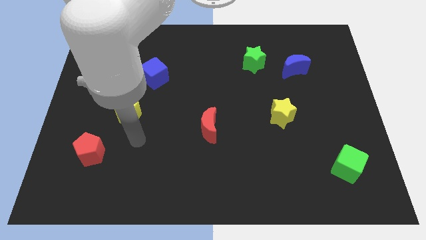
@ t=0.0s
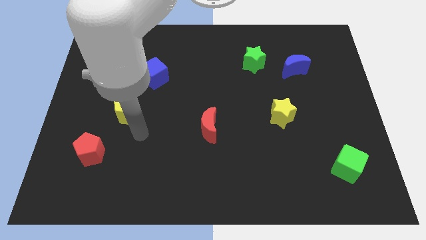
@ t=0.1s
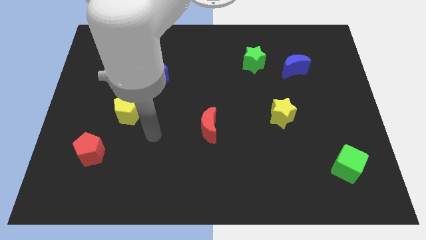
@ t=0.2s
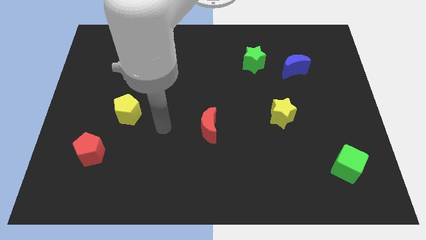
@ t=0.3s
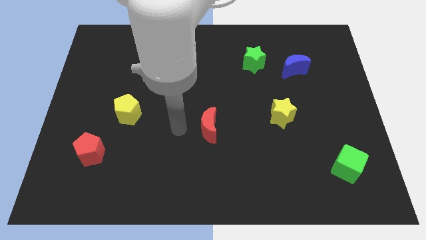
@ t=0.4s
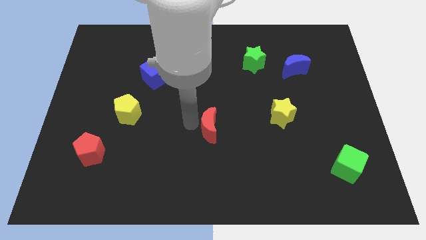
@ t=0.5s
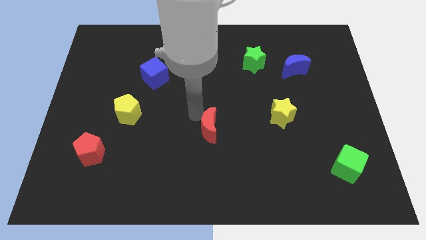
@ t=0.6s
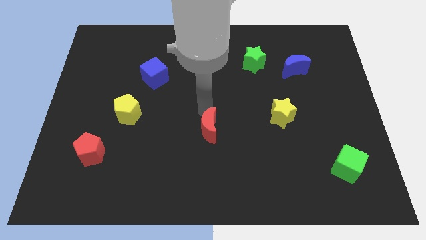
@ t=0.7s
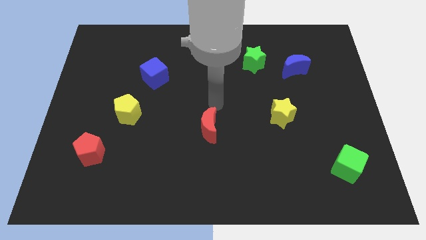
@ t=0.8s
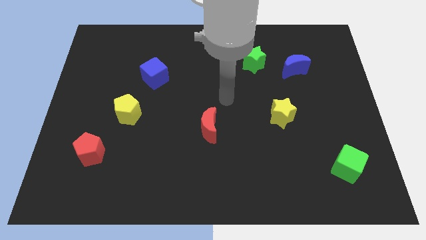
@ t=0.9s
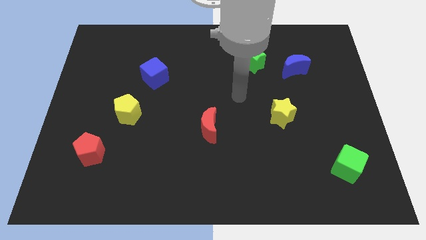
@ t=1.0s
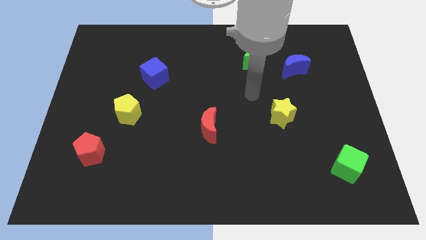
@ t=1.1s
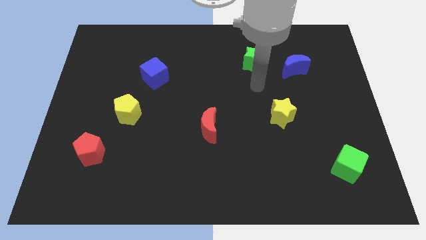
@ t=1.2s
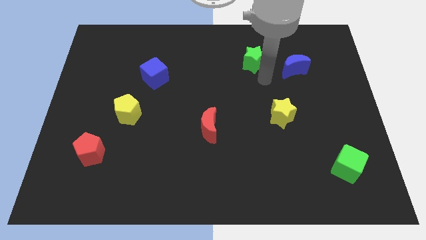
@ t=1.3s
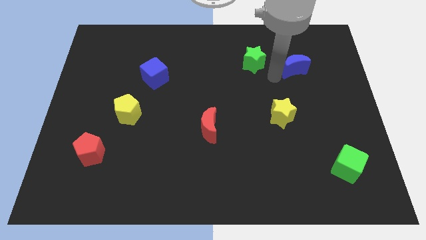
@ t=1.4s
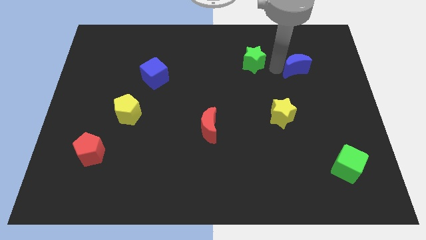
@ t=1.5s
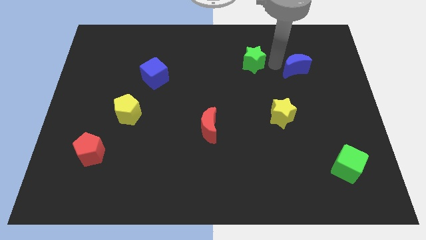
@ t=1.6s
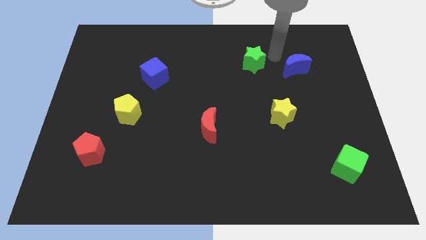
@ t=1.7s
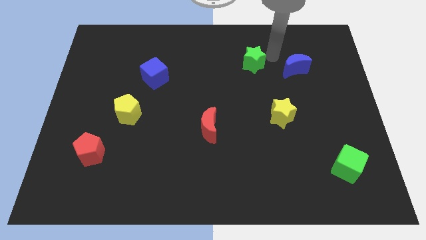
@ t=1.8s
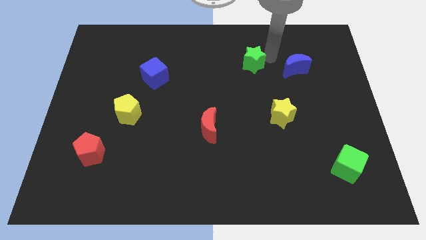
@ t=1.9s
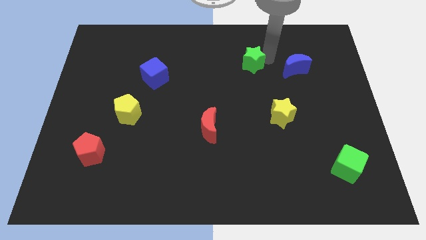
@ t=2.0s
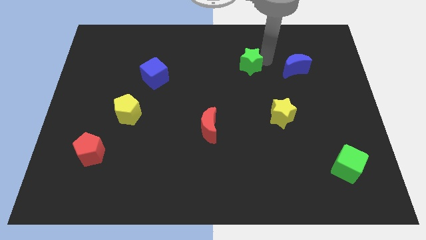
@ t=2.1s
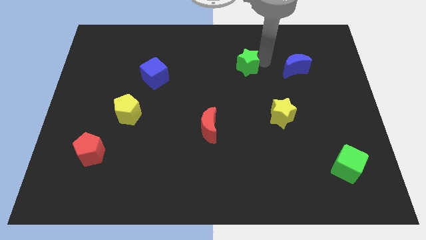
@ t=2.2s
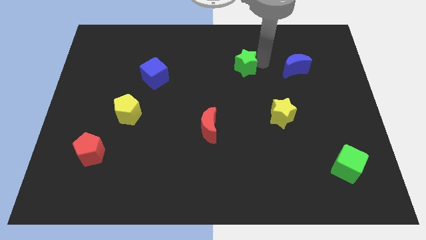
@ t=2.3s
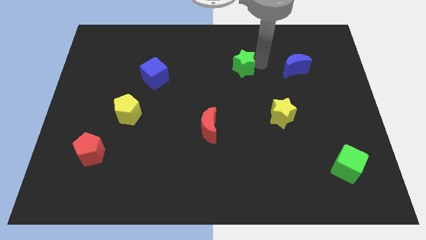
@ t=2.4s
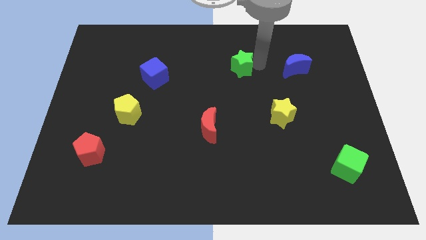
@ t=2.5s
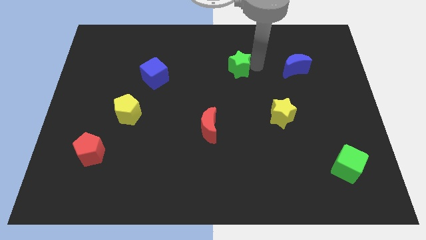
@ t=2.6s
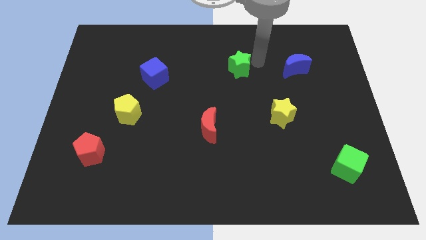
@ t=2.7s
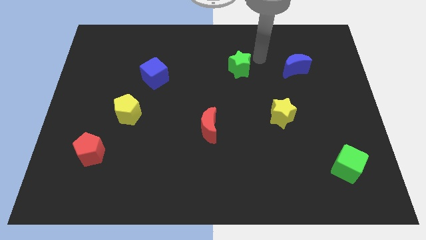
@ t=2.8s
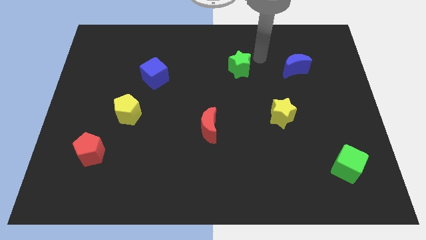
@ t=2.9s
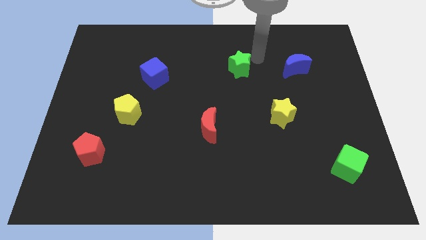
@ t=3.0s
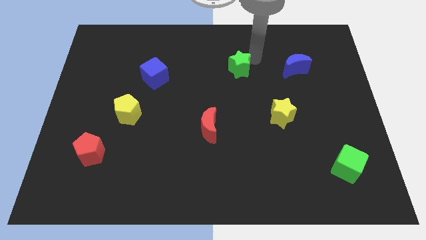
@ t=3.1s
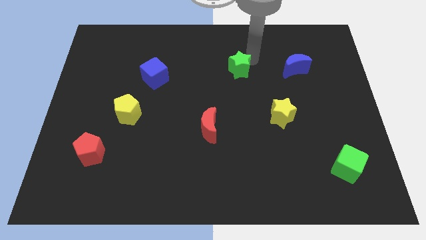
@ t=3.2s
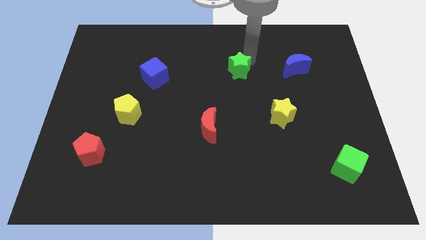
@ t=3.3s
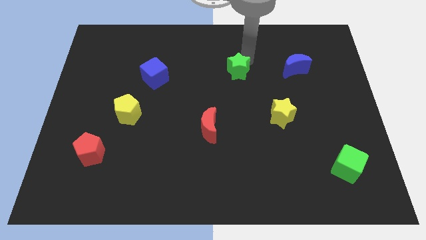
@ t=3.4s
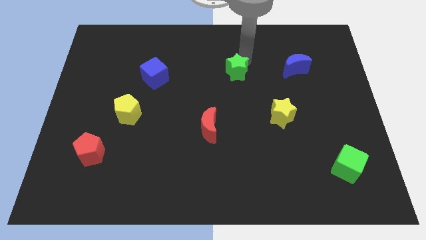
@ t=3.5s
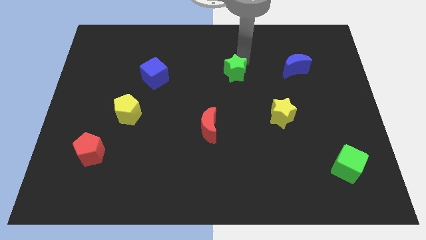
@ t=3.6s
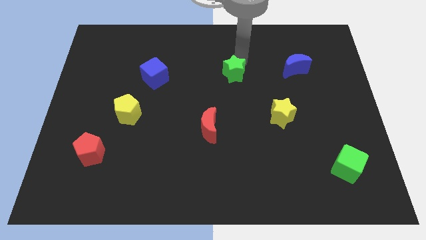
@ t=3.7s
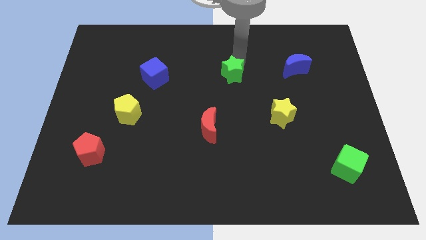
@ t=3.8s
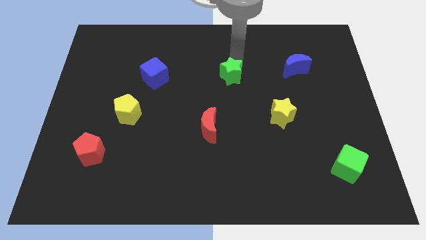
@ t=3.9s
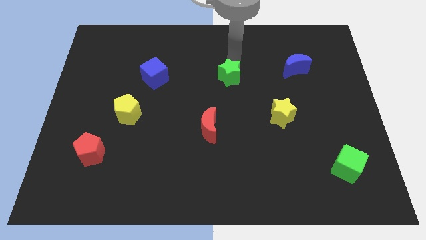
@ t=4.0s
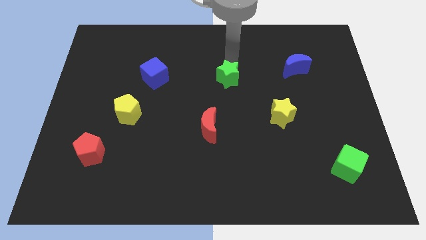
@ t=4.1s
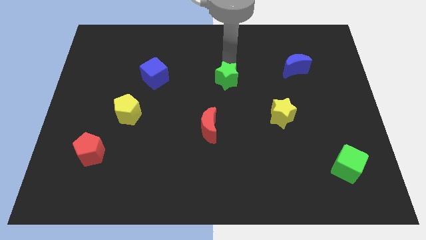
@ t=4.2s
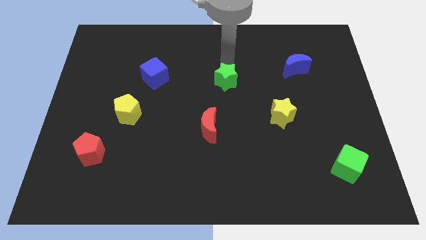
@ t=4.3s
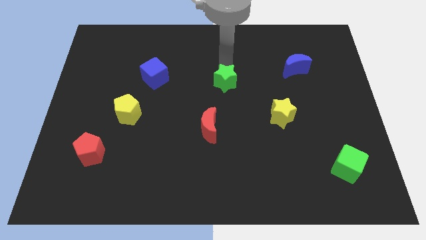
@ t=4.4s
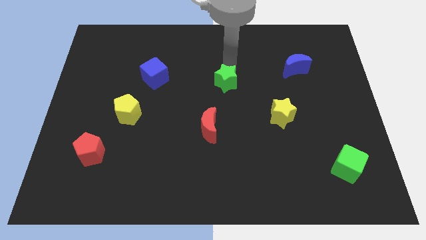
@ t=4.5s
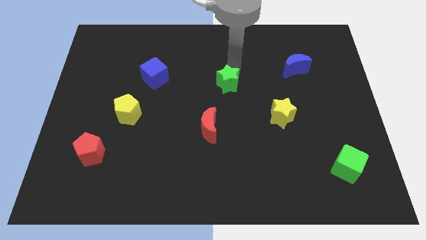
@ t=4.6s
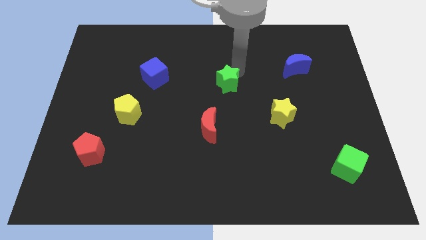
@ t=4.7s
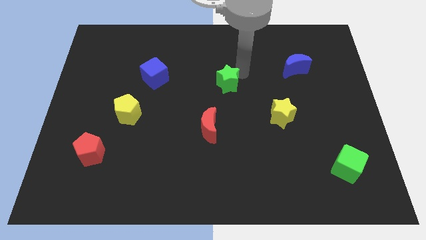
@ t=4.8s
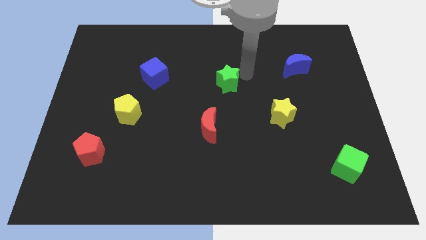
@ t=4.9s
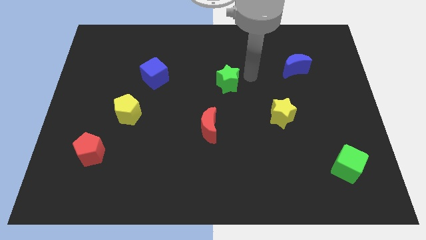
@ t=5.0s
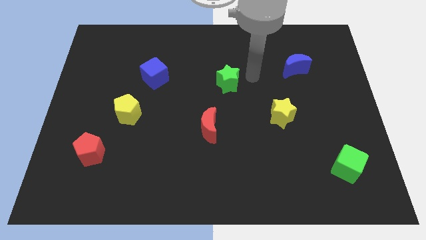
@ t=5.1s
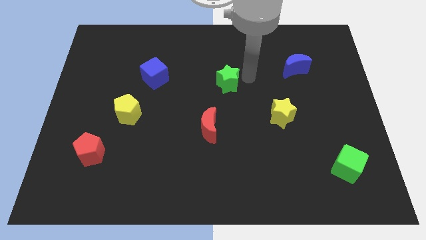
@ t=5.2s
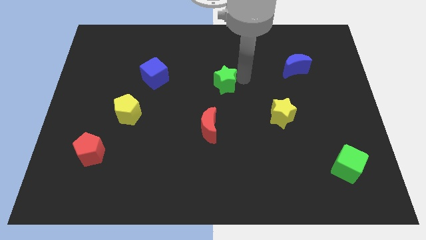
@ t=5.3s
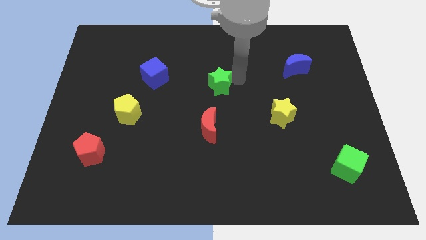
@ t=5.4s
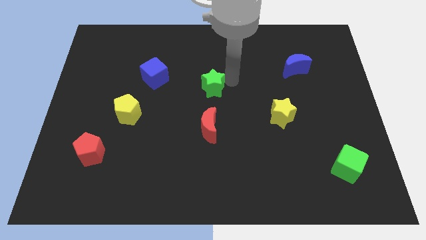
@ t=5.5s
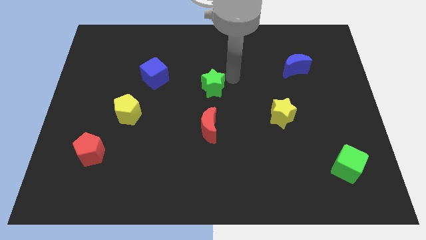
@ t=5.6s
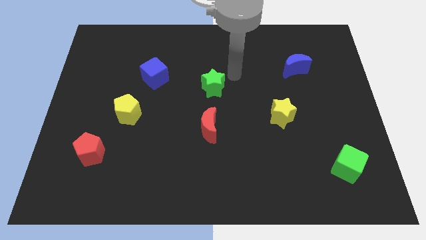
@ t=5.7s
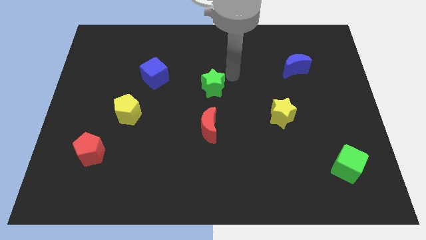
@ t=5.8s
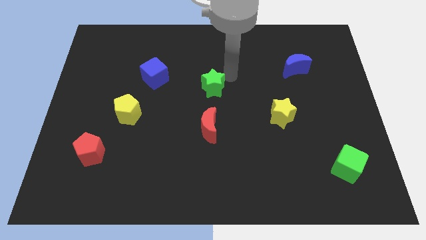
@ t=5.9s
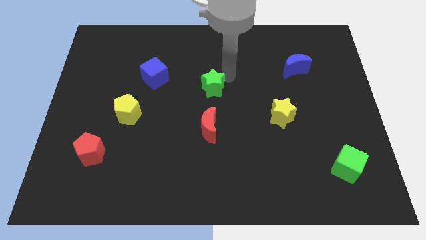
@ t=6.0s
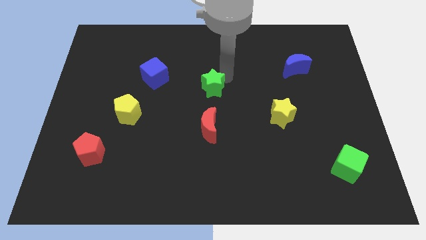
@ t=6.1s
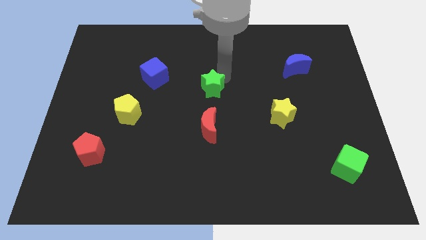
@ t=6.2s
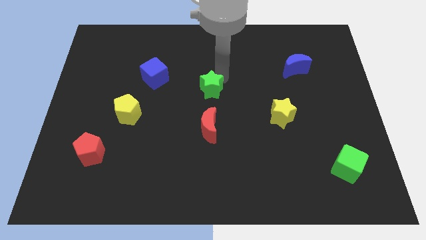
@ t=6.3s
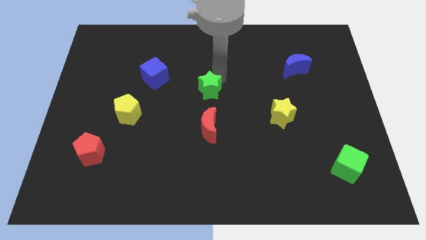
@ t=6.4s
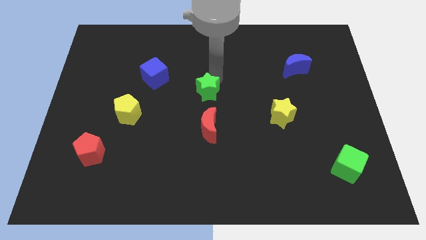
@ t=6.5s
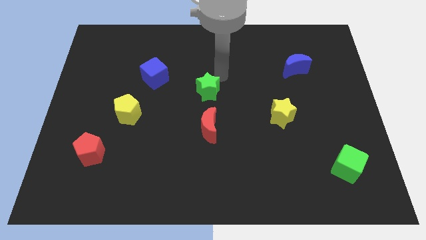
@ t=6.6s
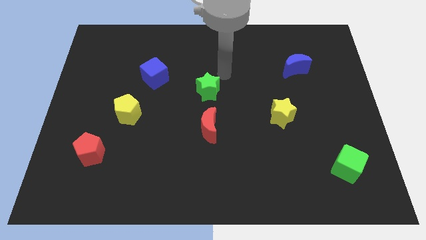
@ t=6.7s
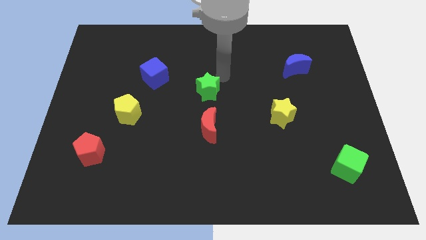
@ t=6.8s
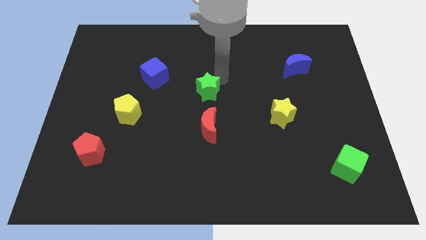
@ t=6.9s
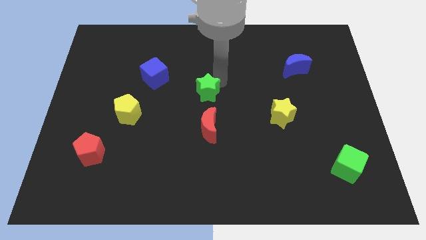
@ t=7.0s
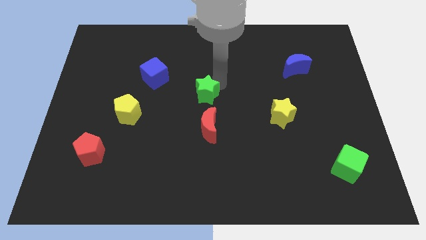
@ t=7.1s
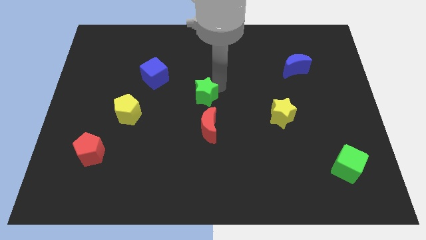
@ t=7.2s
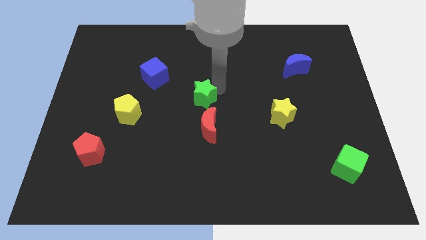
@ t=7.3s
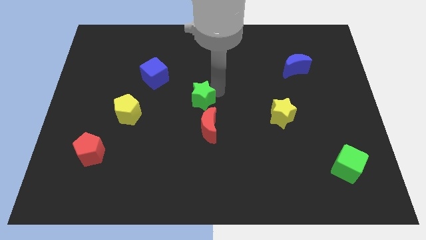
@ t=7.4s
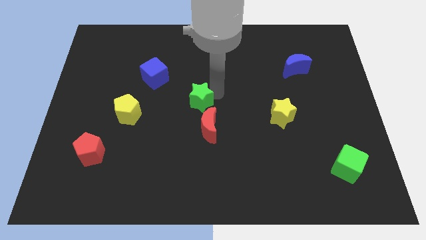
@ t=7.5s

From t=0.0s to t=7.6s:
move the green star to the top left side of the red moon

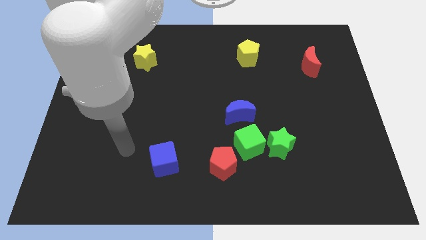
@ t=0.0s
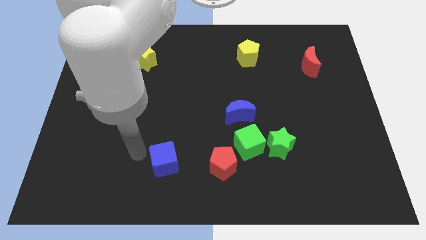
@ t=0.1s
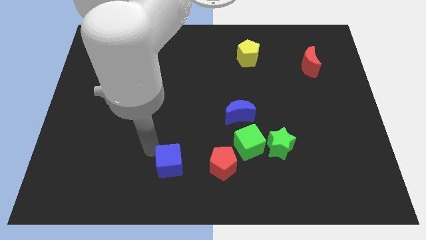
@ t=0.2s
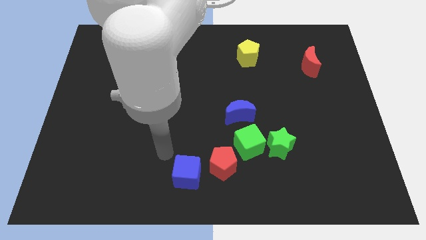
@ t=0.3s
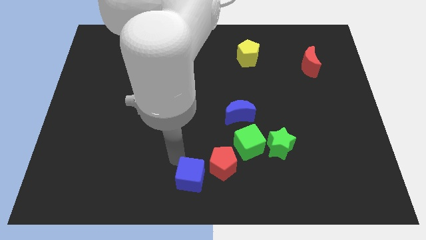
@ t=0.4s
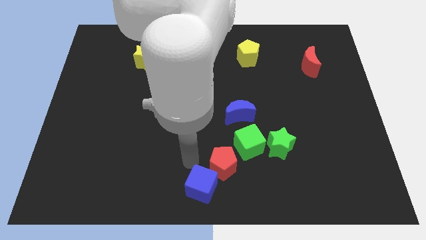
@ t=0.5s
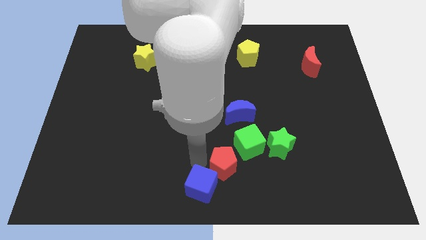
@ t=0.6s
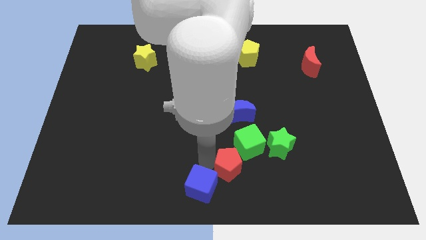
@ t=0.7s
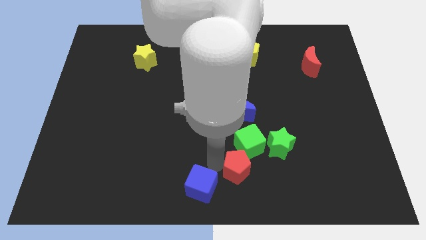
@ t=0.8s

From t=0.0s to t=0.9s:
move the red pentagon to the bottom left of the green star
